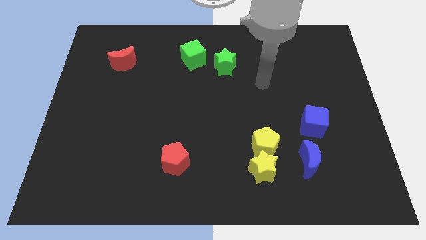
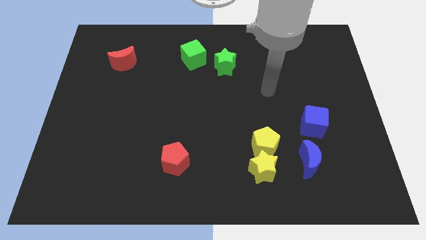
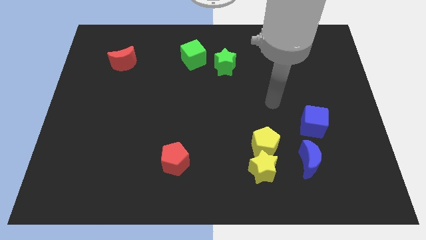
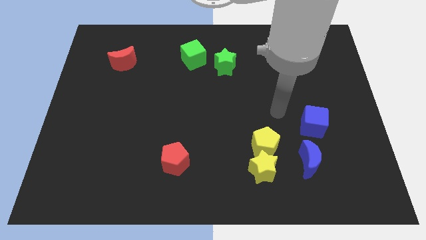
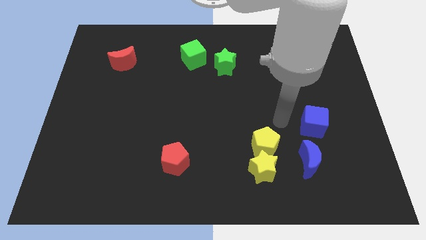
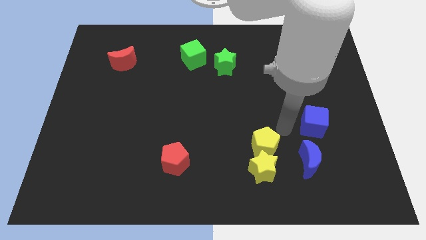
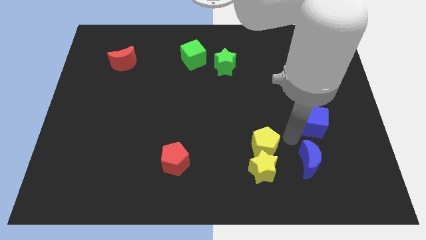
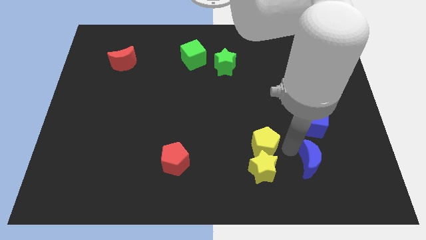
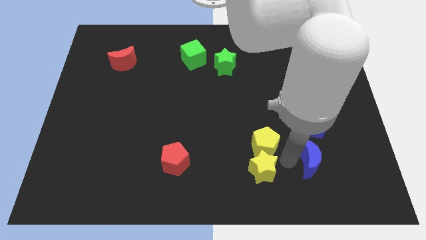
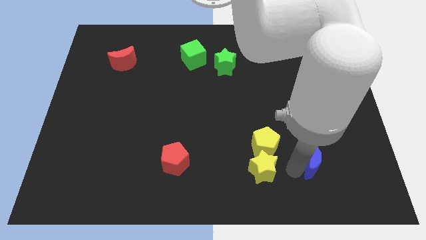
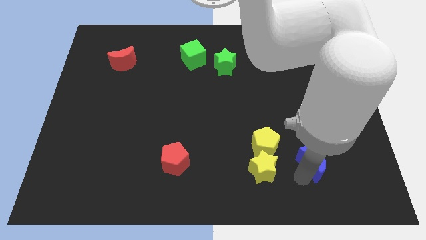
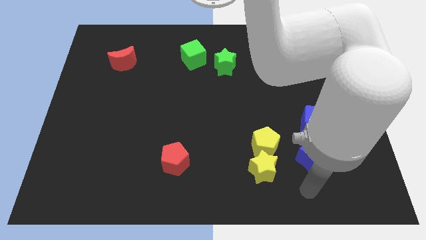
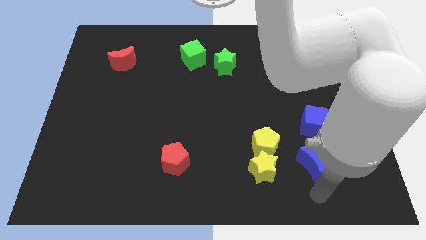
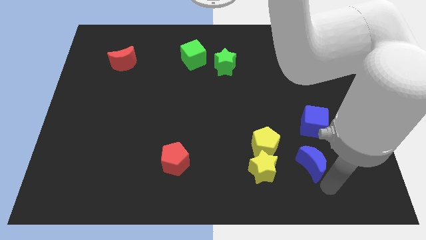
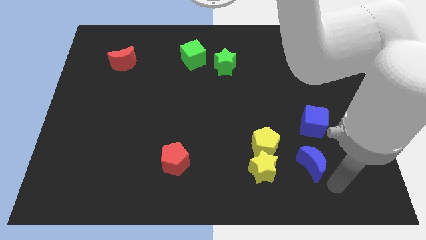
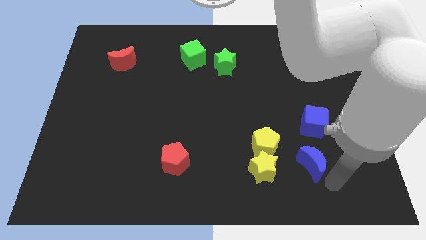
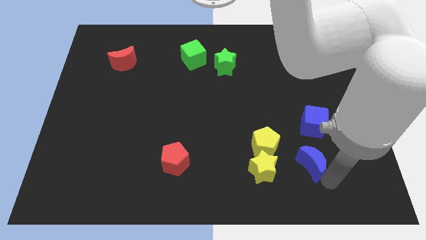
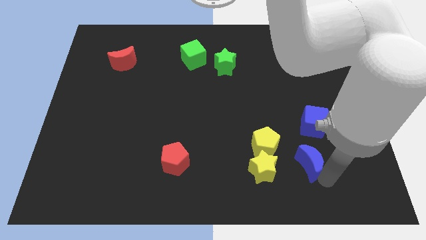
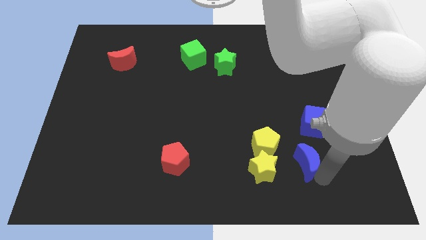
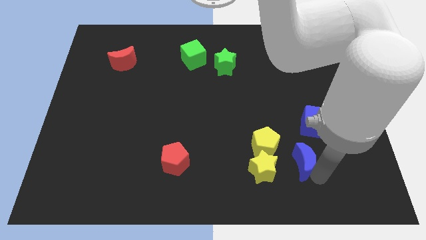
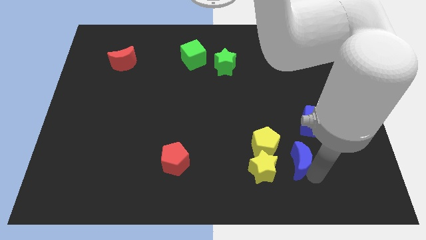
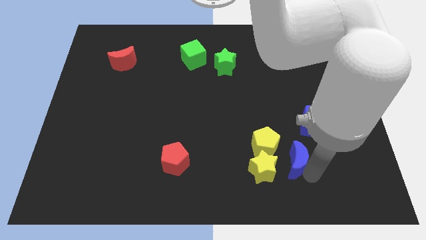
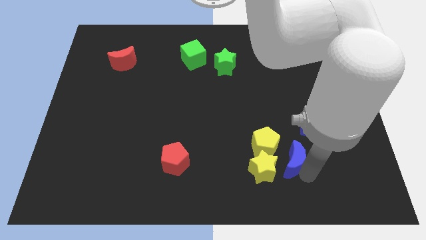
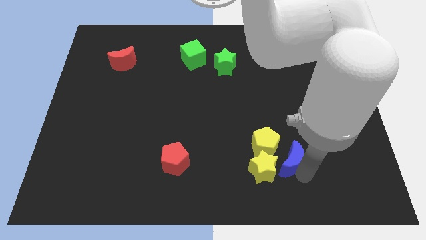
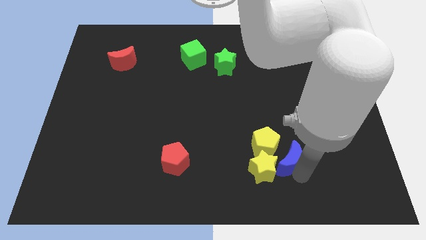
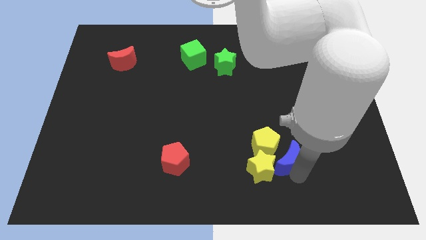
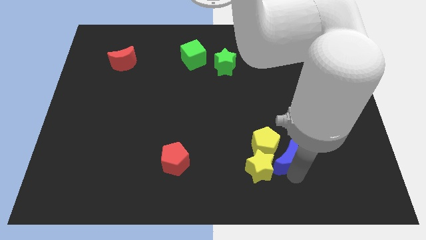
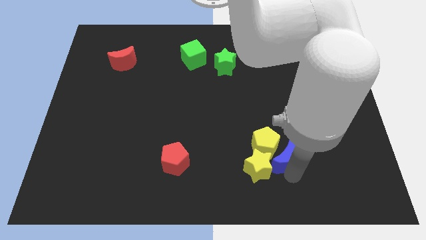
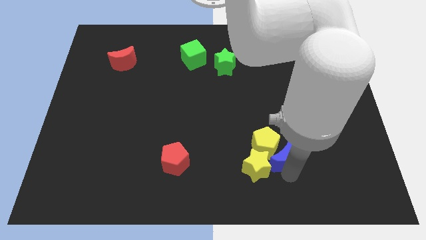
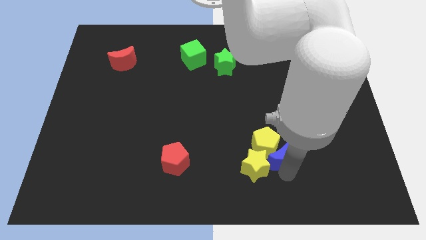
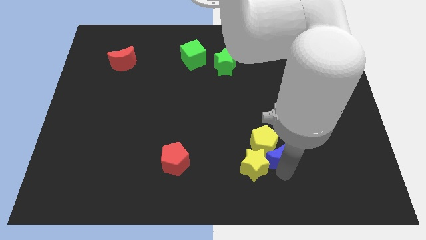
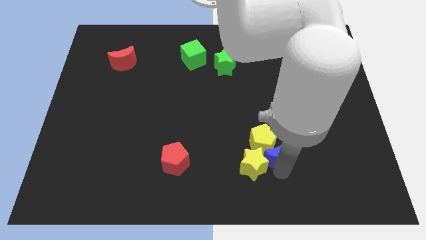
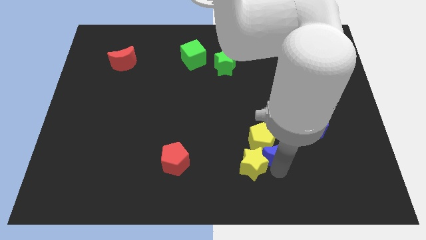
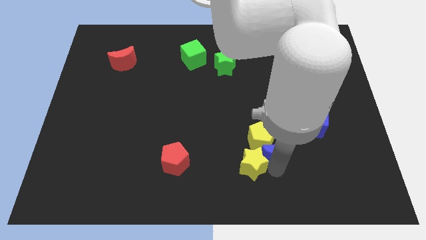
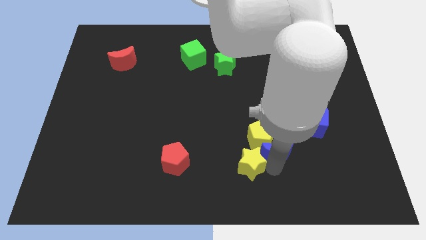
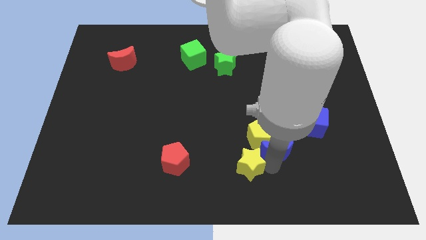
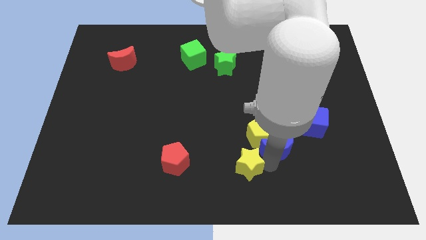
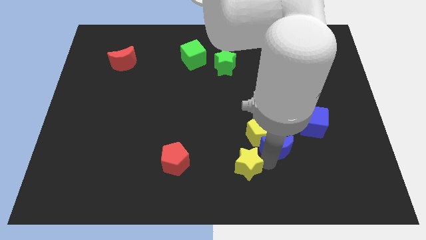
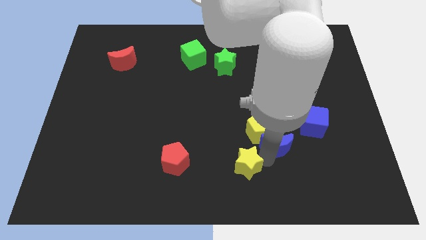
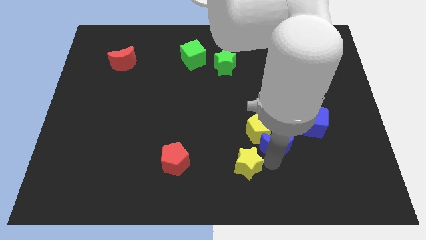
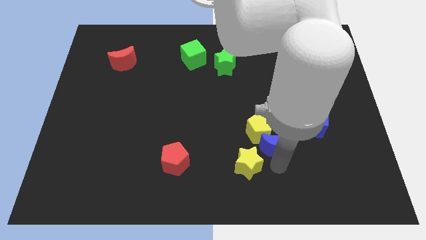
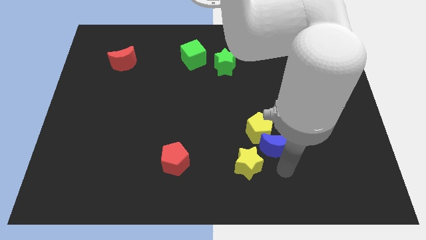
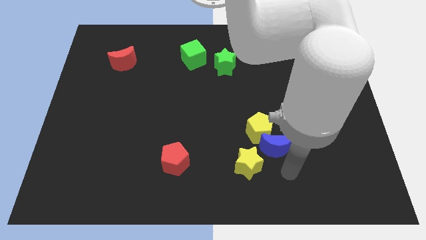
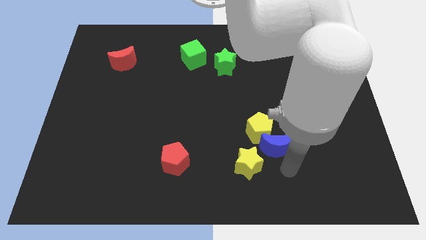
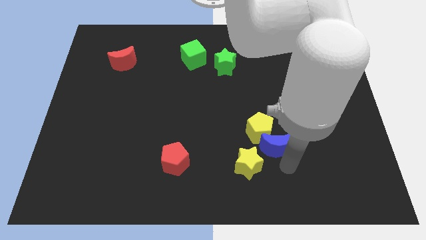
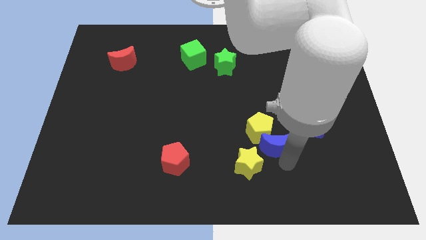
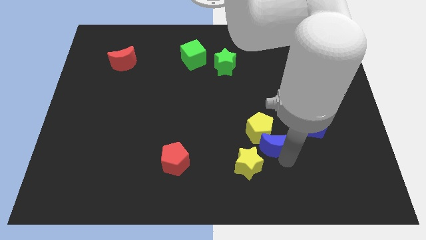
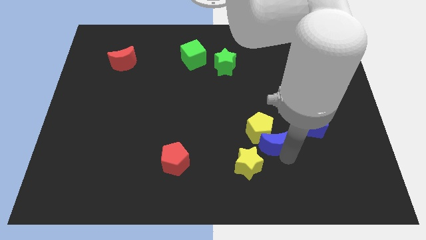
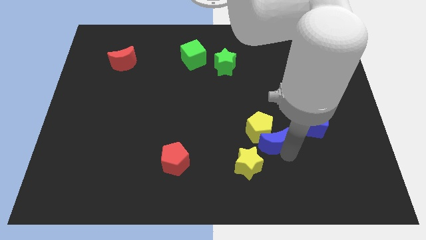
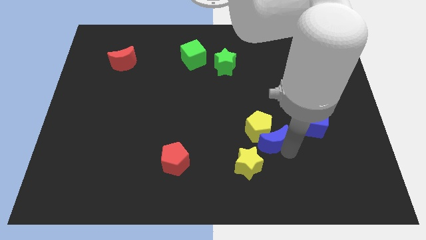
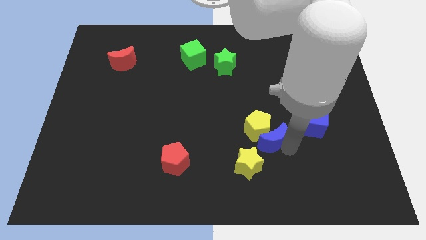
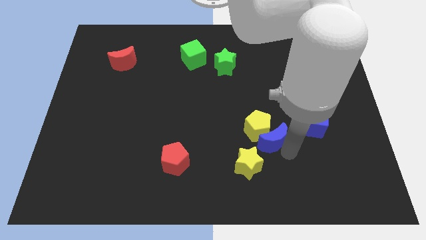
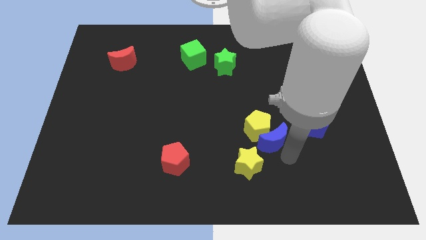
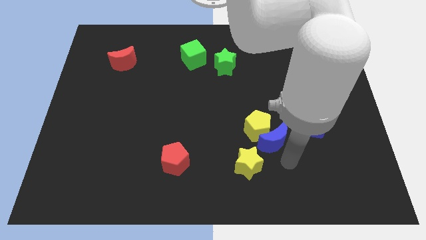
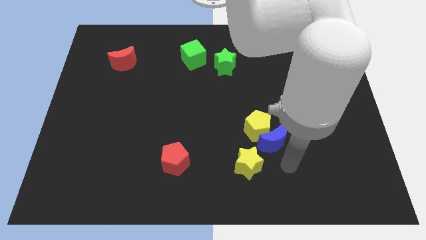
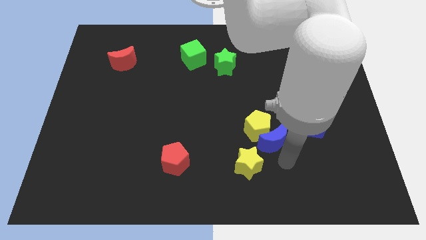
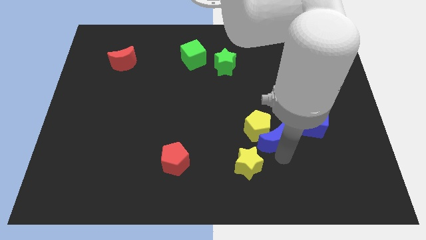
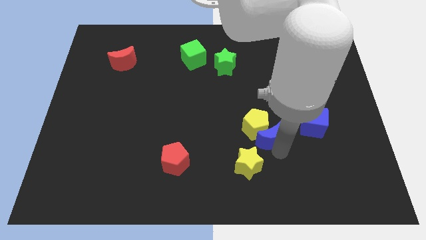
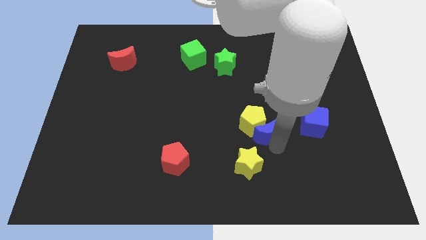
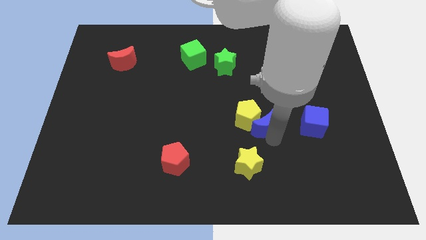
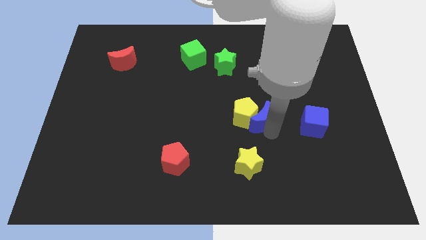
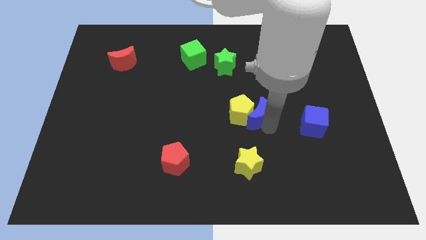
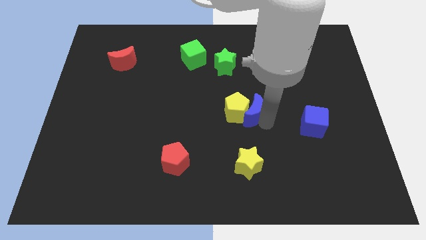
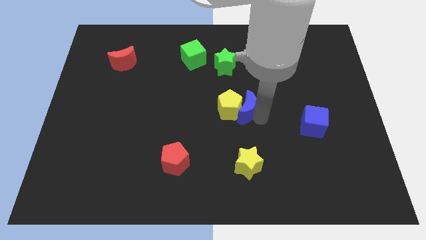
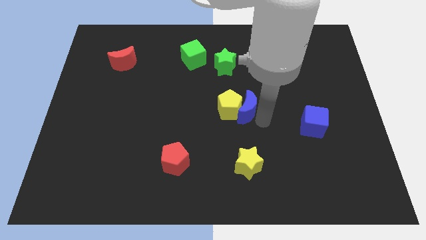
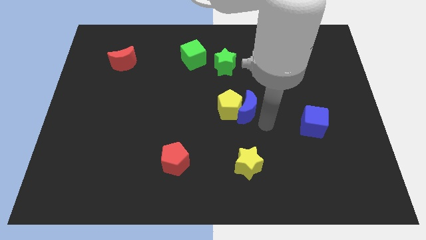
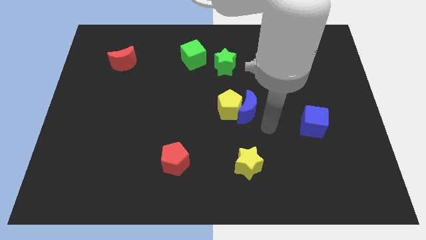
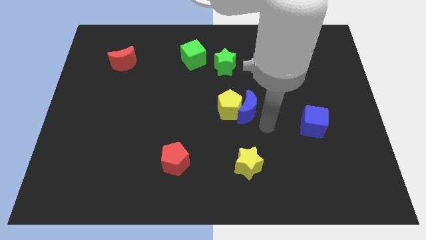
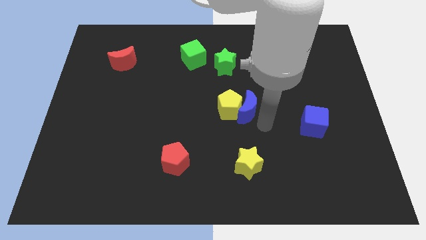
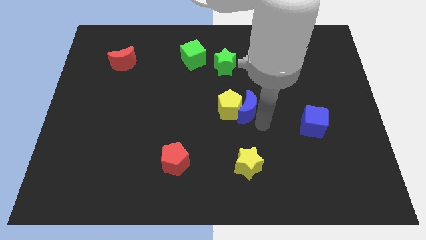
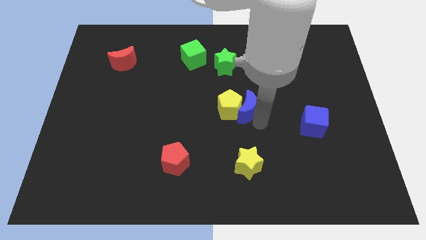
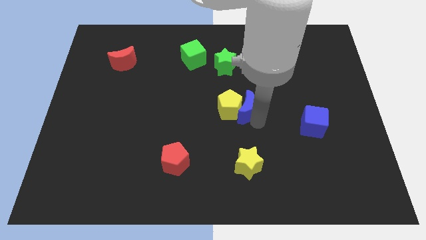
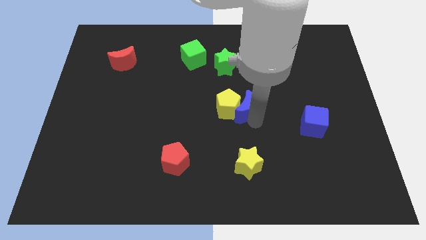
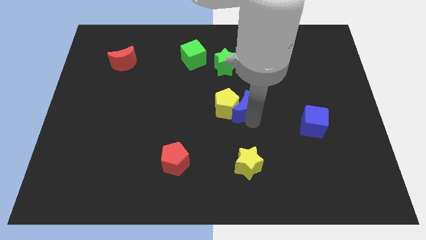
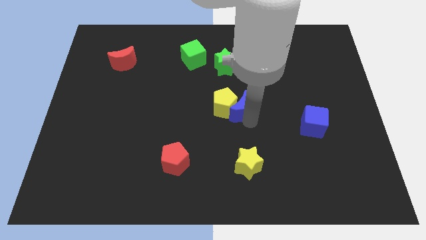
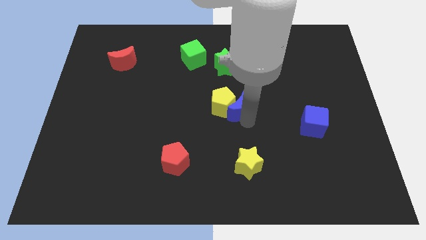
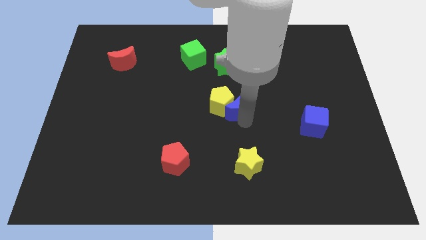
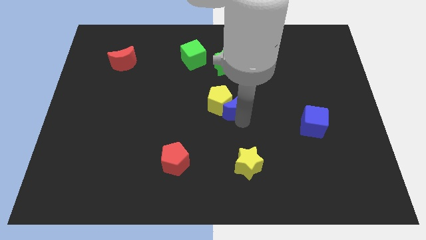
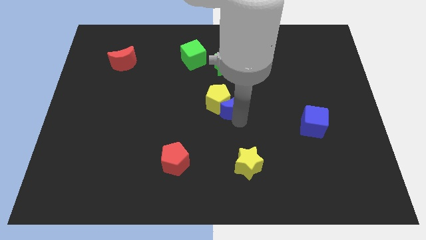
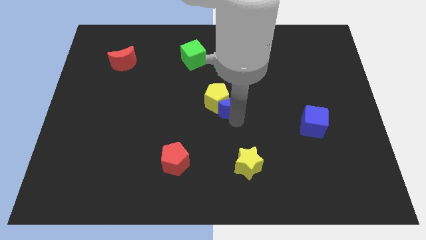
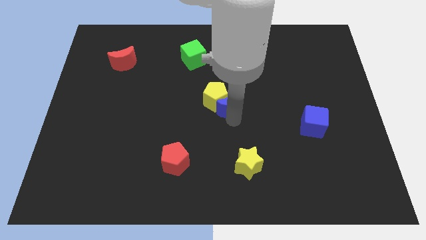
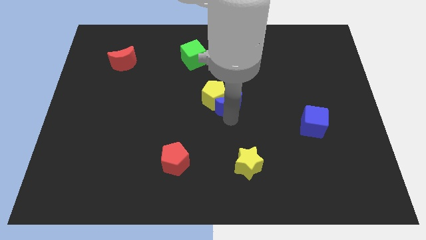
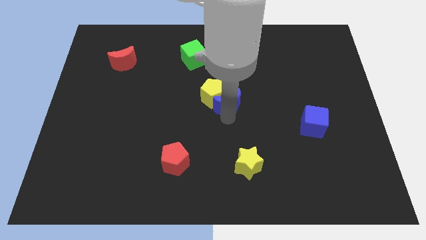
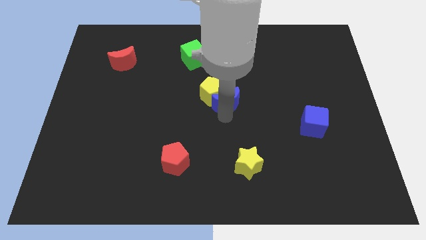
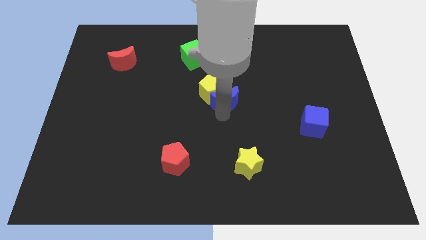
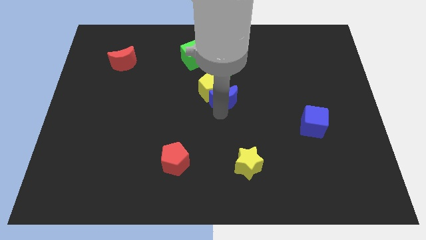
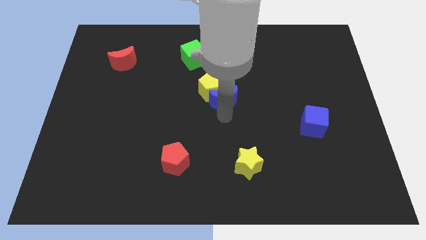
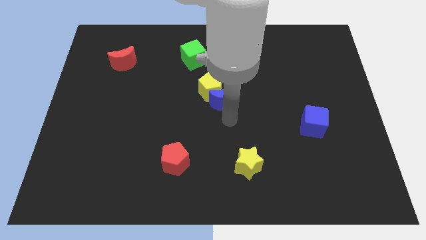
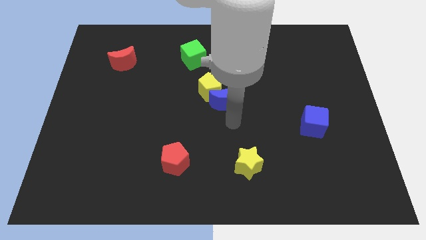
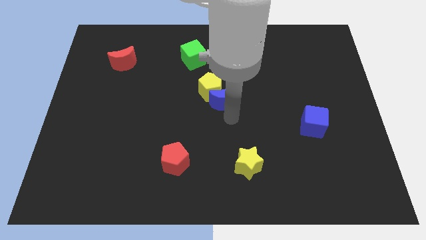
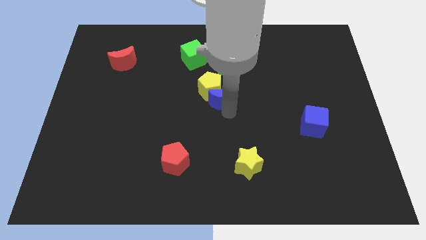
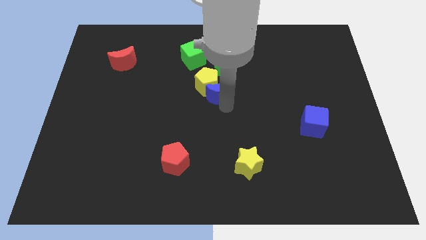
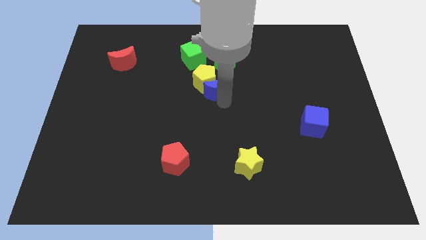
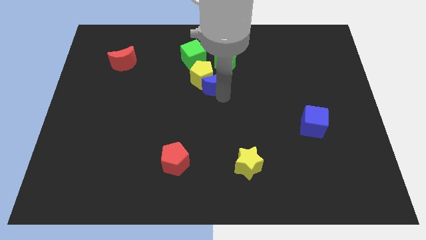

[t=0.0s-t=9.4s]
slide the blue moon to the bottom left side of the green star
